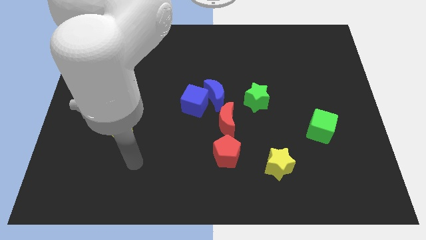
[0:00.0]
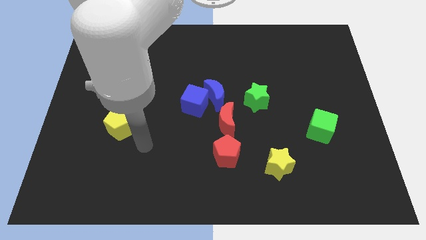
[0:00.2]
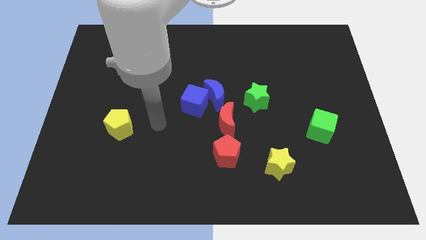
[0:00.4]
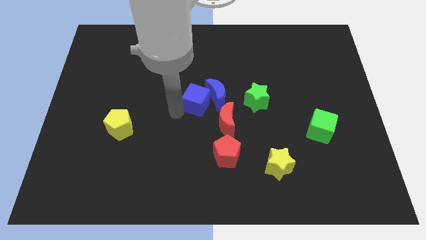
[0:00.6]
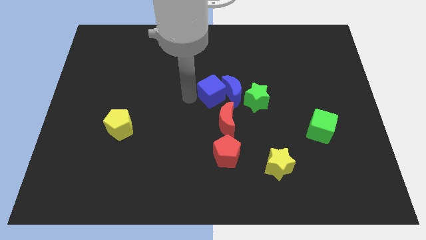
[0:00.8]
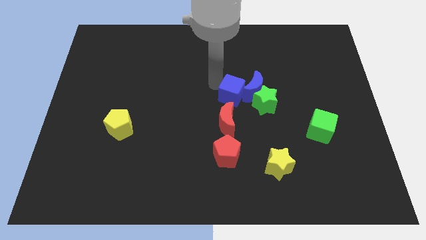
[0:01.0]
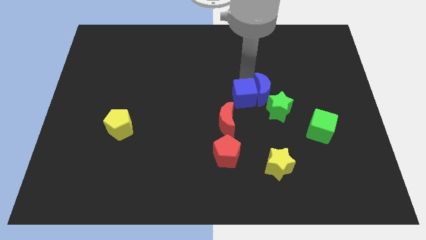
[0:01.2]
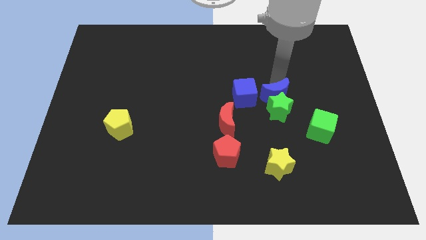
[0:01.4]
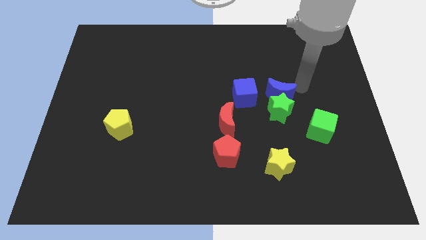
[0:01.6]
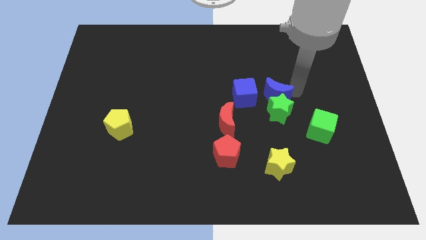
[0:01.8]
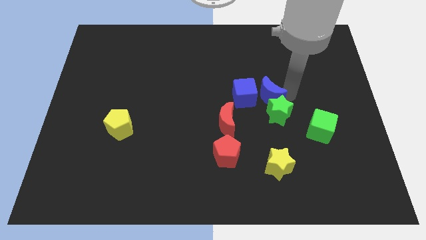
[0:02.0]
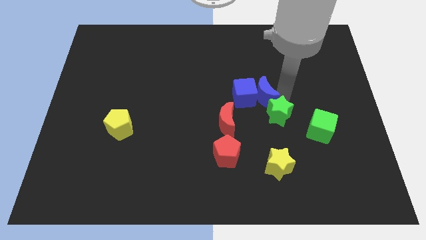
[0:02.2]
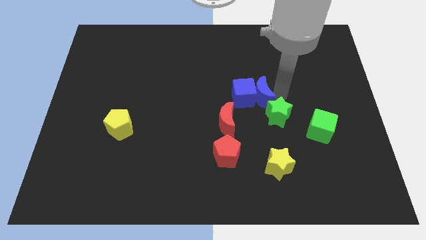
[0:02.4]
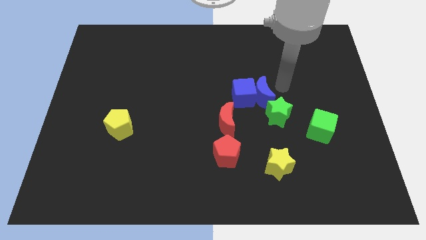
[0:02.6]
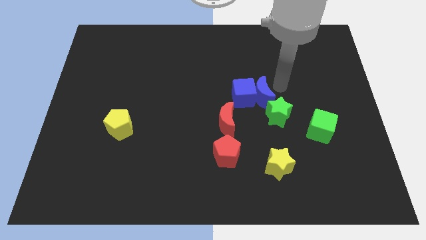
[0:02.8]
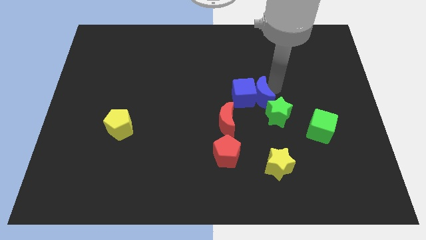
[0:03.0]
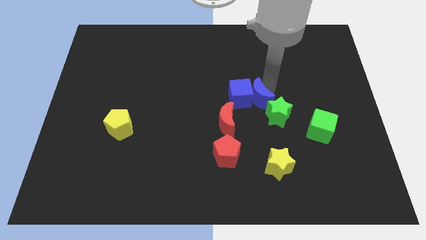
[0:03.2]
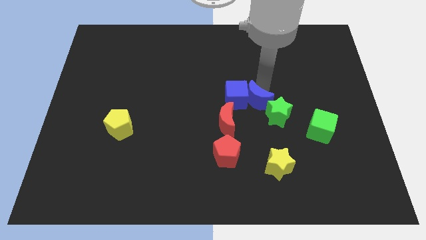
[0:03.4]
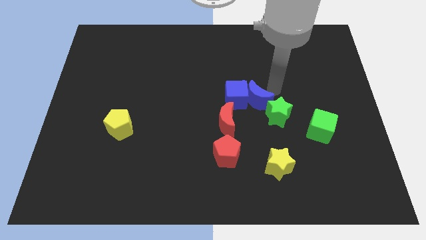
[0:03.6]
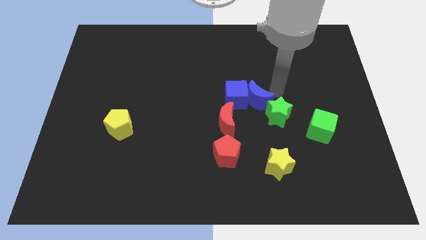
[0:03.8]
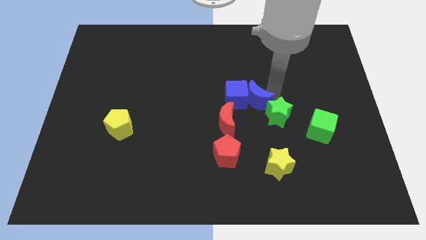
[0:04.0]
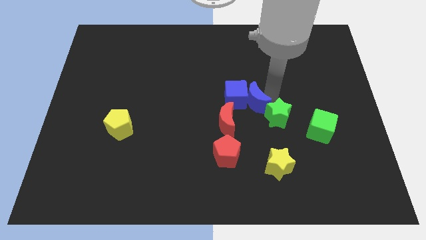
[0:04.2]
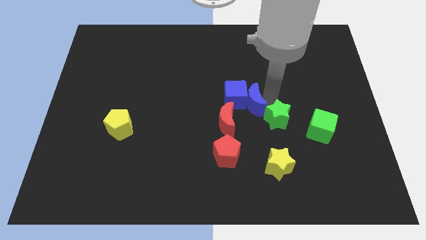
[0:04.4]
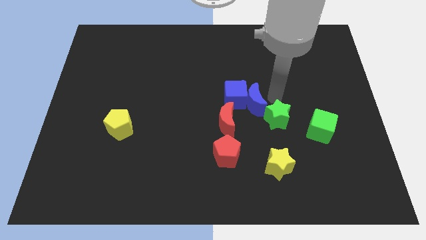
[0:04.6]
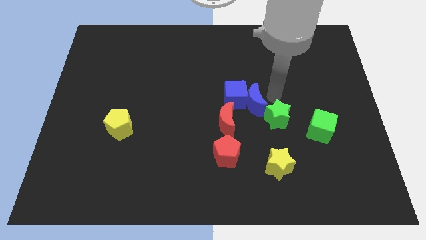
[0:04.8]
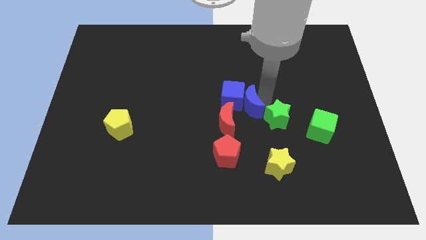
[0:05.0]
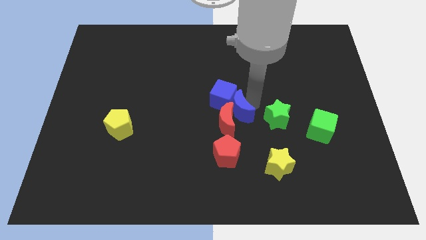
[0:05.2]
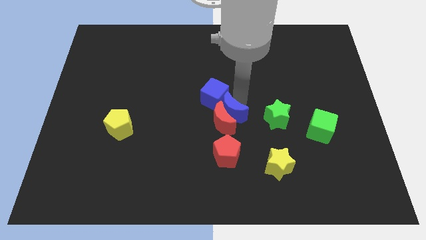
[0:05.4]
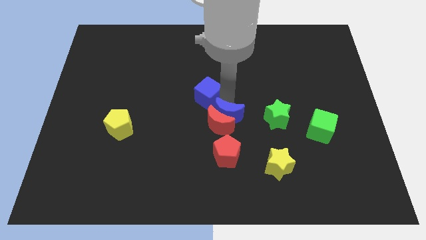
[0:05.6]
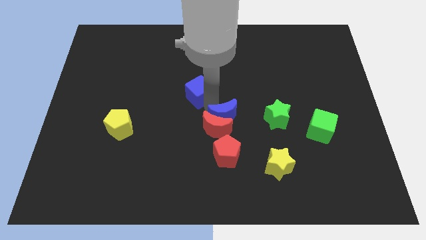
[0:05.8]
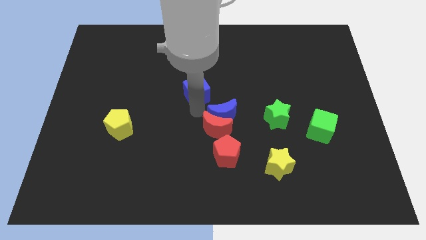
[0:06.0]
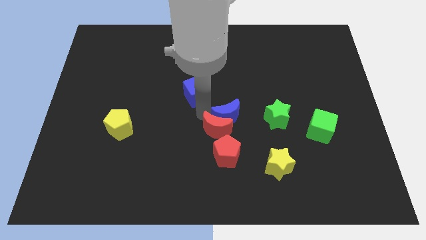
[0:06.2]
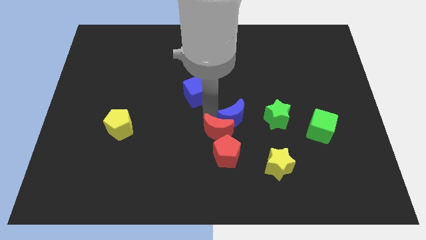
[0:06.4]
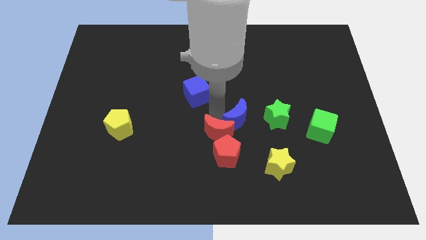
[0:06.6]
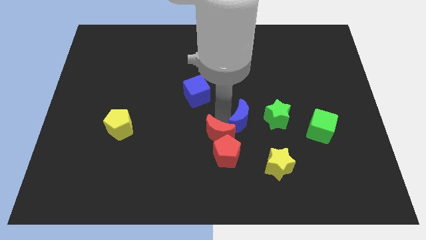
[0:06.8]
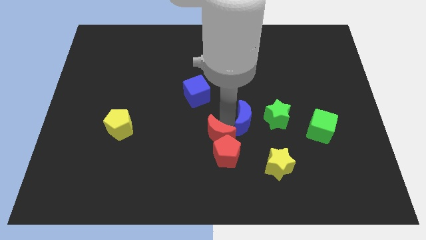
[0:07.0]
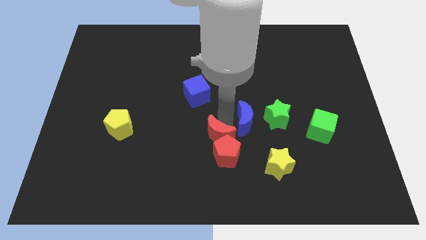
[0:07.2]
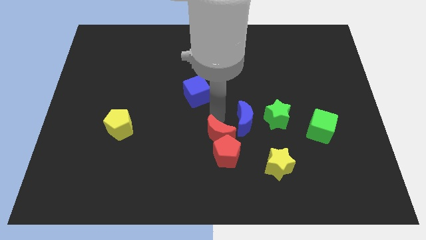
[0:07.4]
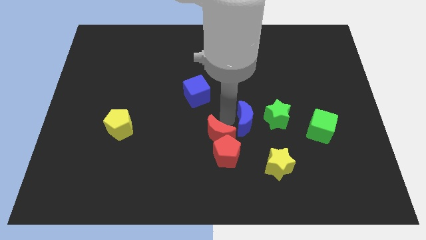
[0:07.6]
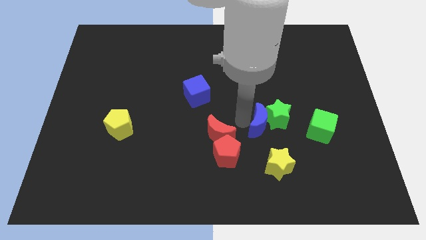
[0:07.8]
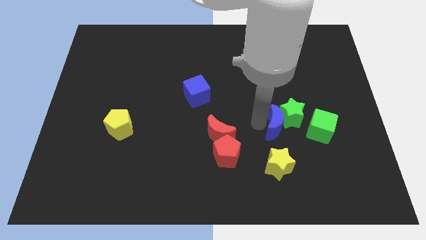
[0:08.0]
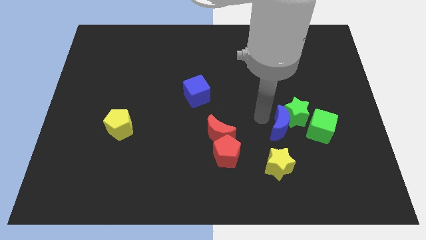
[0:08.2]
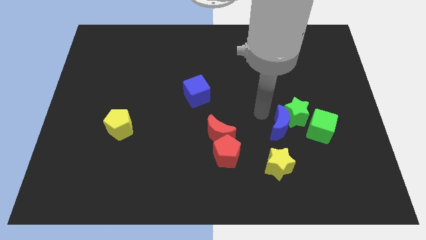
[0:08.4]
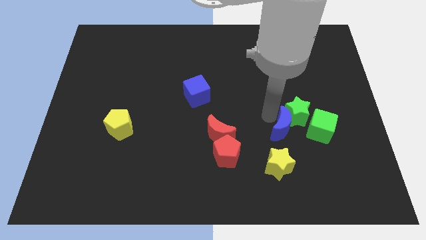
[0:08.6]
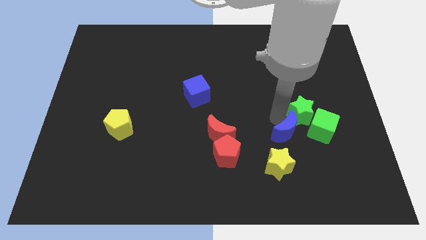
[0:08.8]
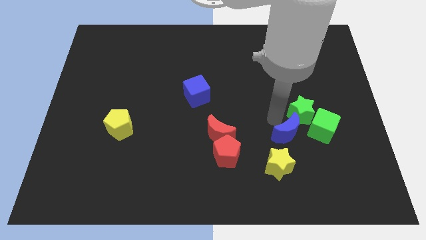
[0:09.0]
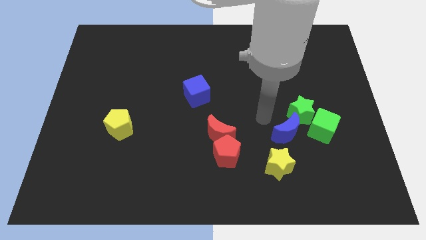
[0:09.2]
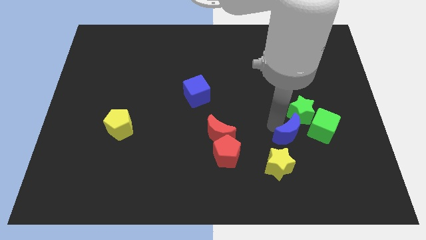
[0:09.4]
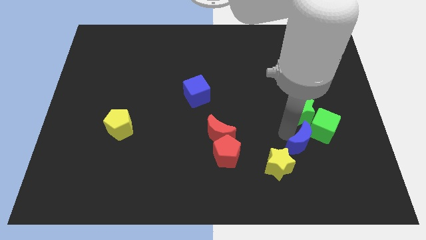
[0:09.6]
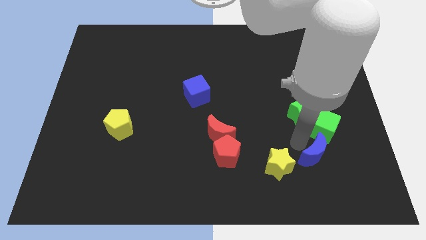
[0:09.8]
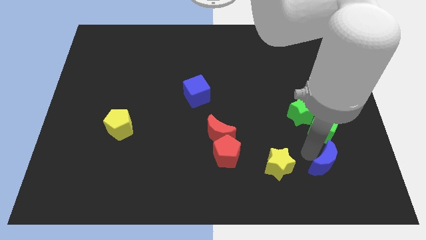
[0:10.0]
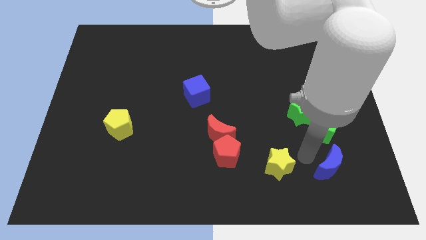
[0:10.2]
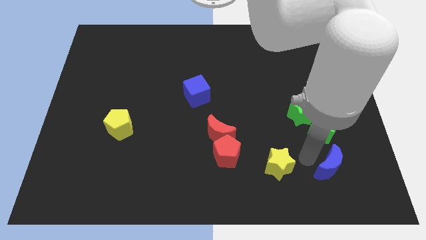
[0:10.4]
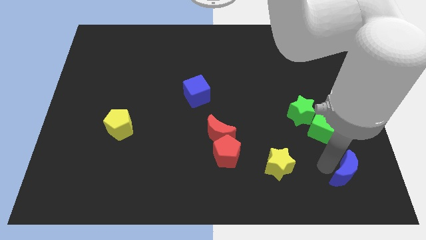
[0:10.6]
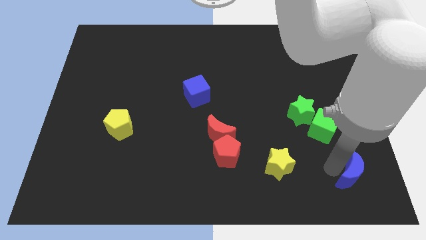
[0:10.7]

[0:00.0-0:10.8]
put the blue moon to the bottom right corner
